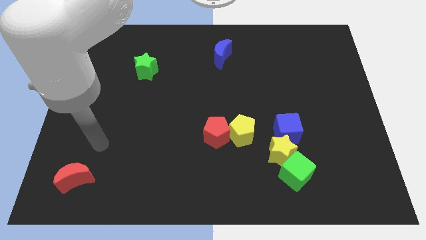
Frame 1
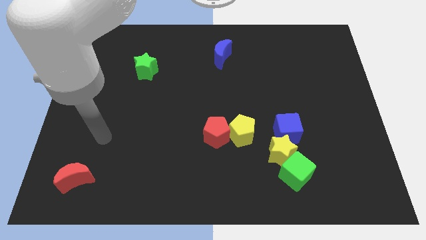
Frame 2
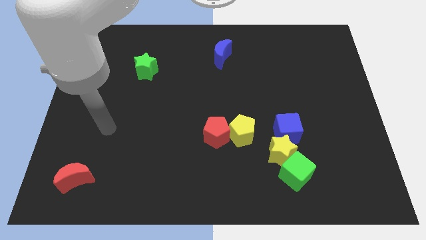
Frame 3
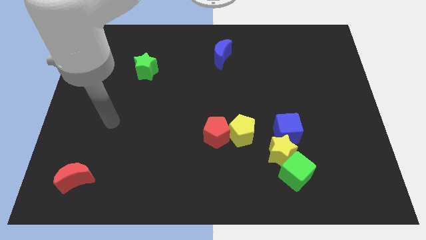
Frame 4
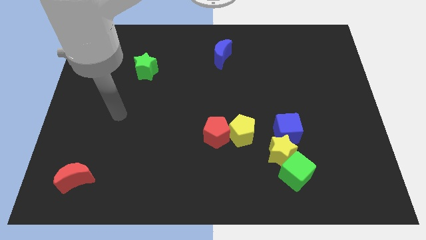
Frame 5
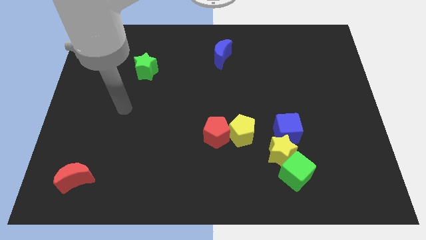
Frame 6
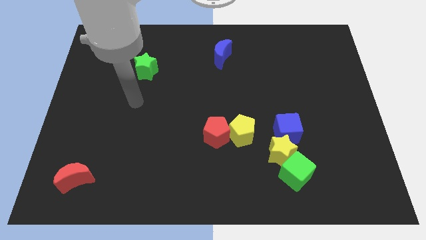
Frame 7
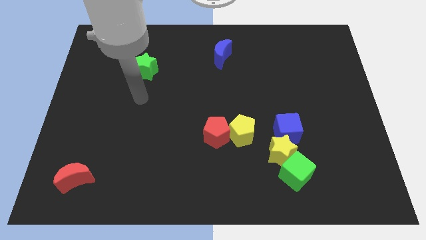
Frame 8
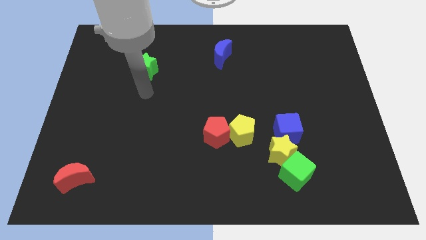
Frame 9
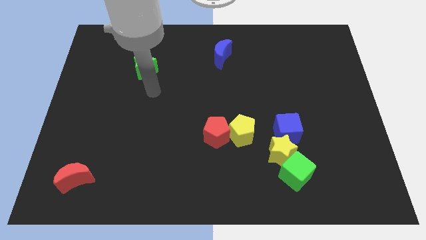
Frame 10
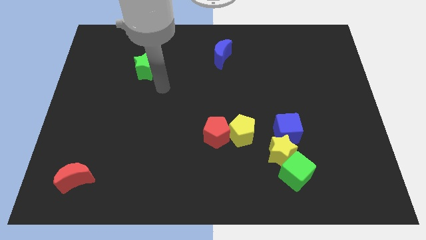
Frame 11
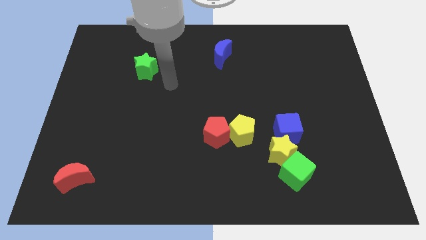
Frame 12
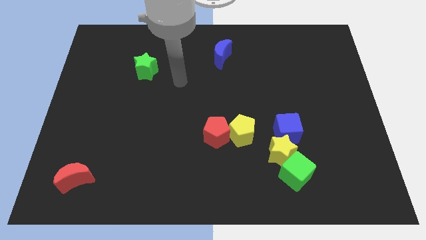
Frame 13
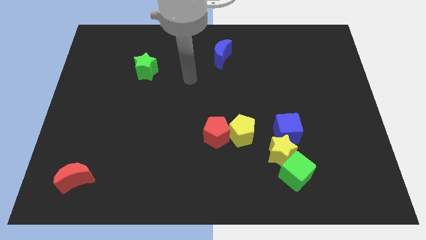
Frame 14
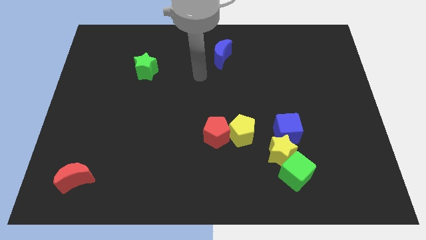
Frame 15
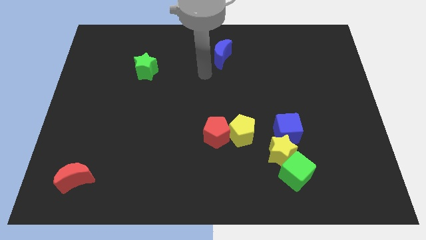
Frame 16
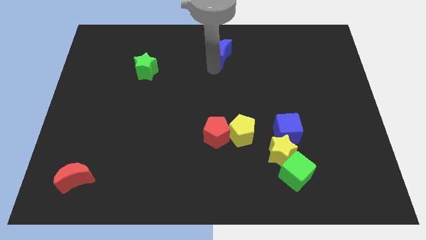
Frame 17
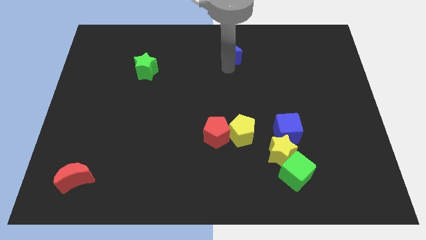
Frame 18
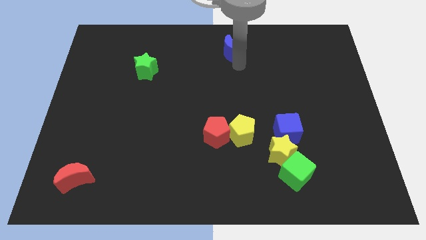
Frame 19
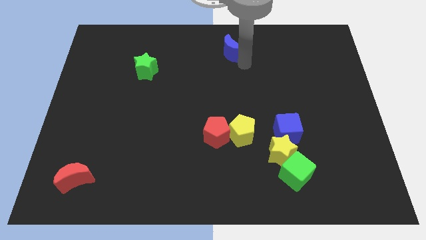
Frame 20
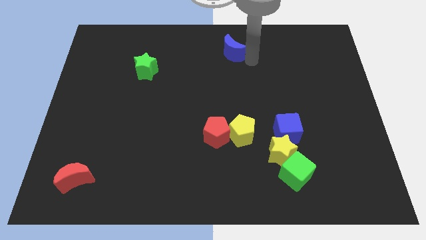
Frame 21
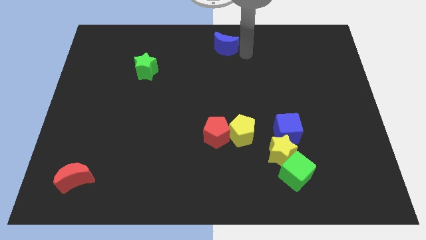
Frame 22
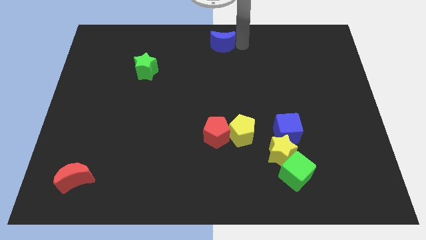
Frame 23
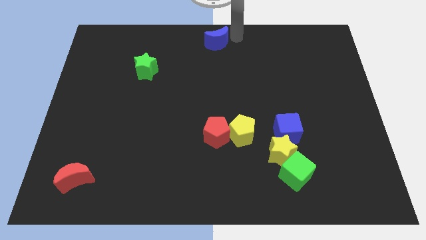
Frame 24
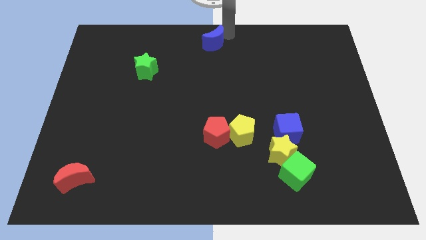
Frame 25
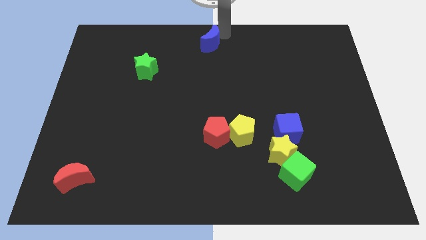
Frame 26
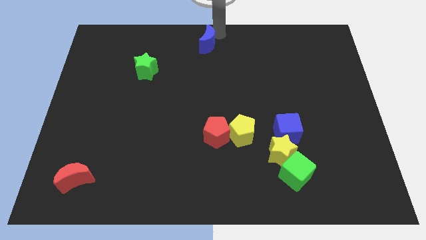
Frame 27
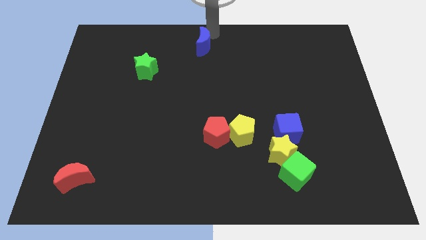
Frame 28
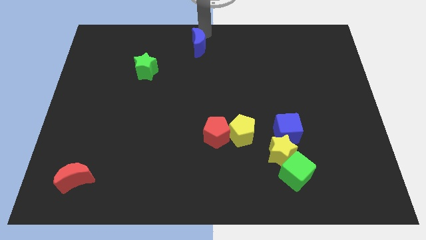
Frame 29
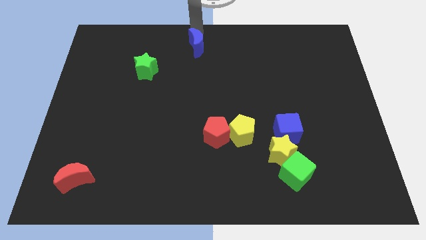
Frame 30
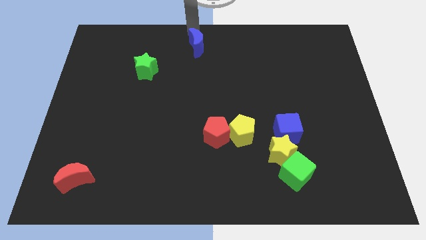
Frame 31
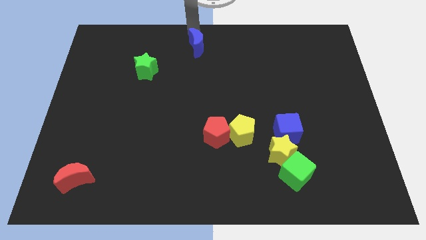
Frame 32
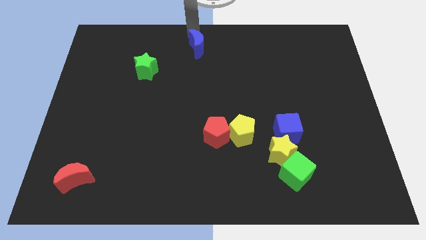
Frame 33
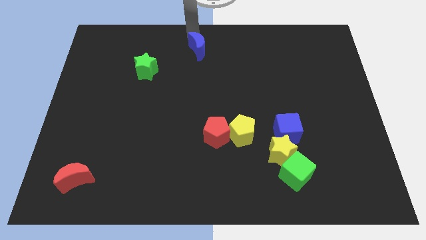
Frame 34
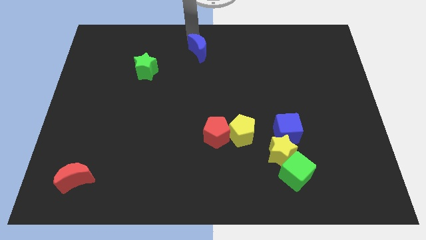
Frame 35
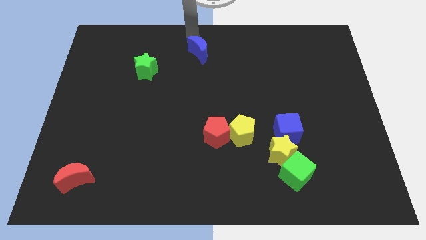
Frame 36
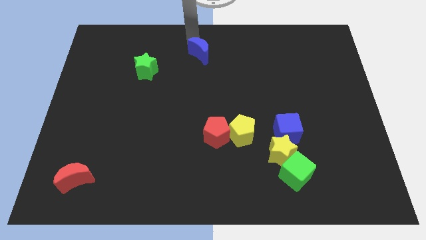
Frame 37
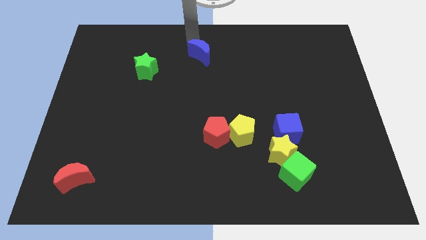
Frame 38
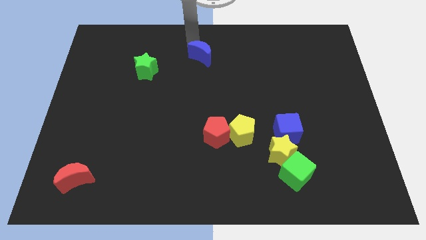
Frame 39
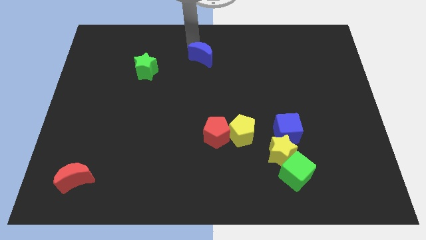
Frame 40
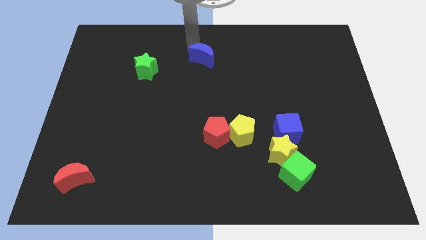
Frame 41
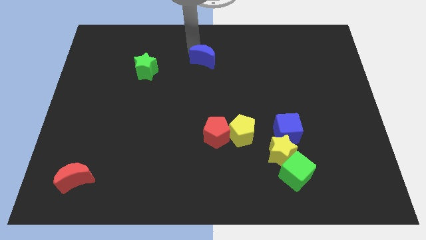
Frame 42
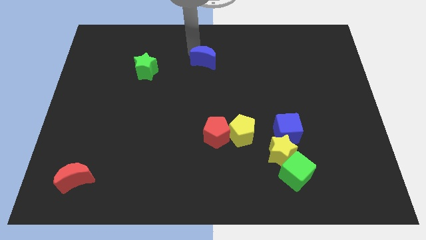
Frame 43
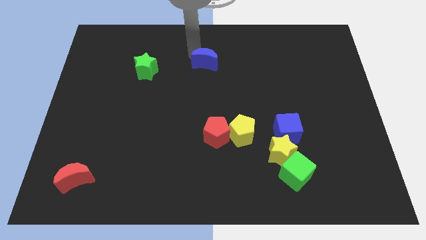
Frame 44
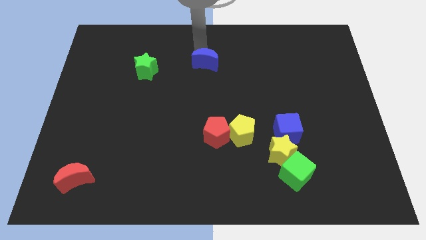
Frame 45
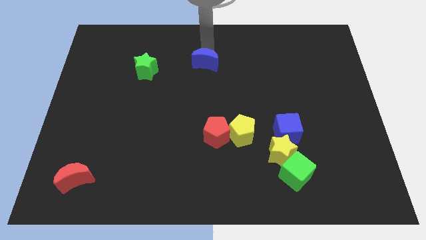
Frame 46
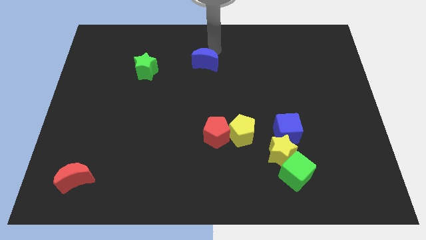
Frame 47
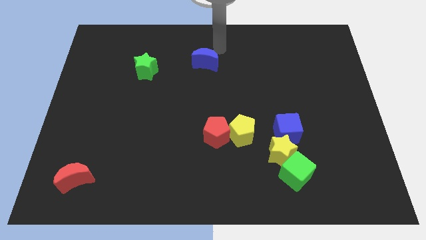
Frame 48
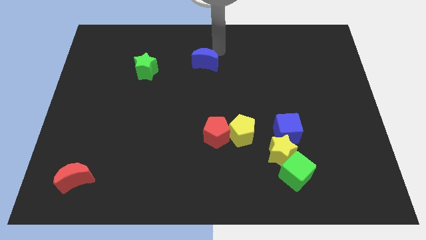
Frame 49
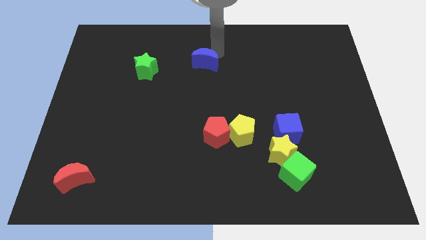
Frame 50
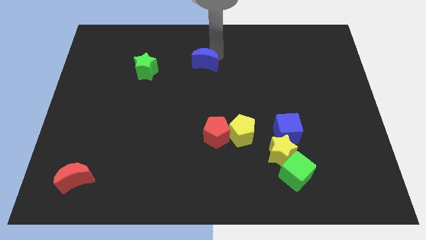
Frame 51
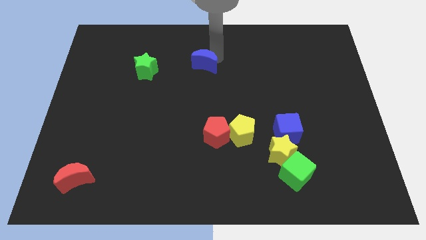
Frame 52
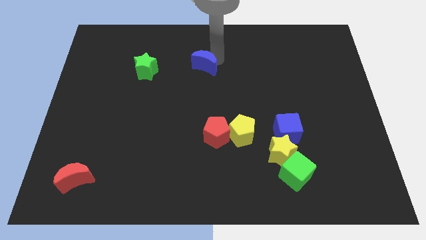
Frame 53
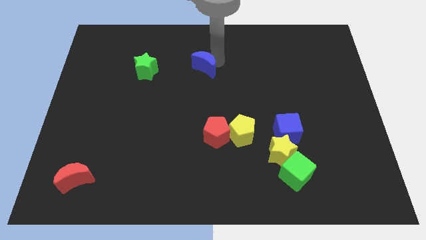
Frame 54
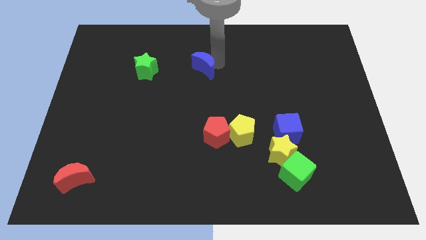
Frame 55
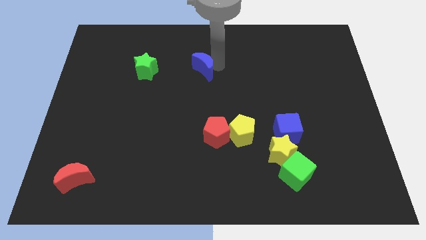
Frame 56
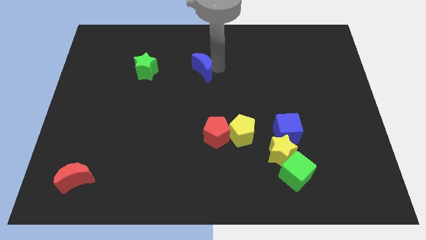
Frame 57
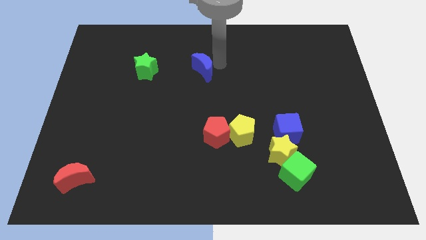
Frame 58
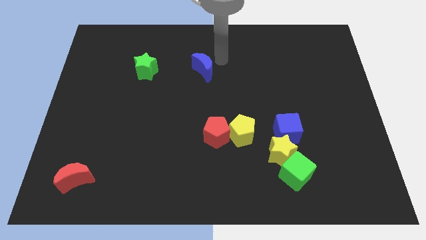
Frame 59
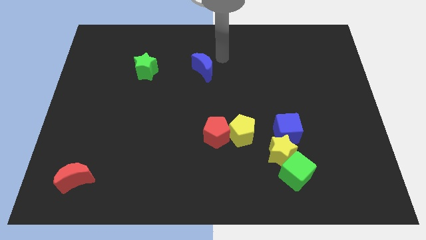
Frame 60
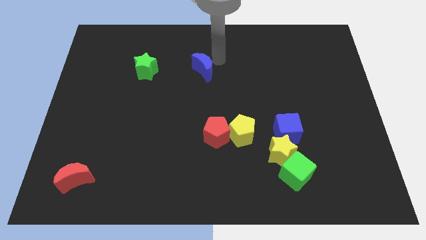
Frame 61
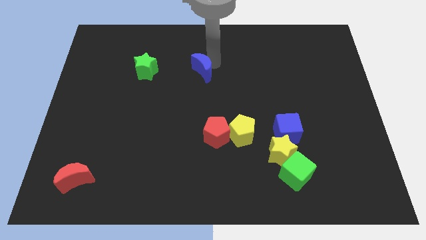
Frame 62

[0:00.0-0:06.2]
slightly push the blue moon downwards and to the left

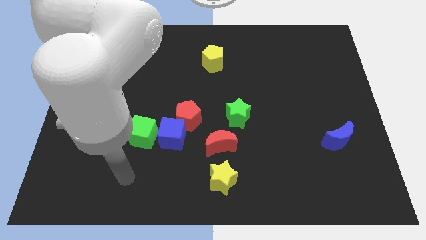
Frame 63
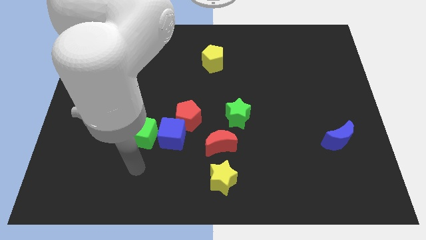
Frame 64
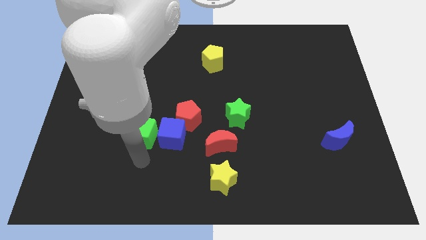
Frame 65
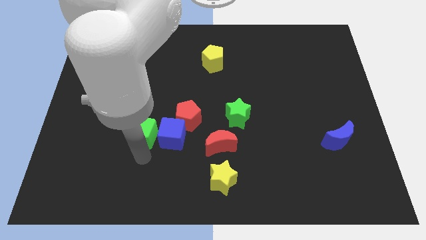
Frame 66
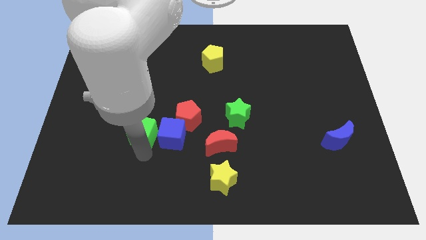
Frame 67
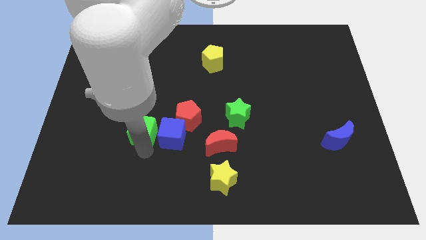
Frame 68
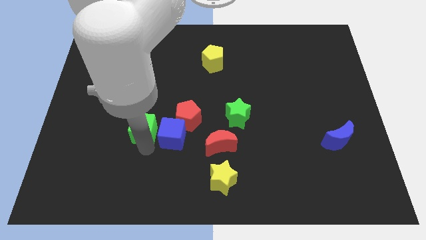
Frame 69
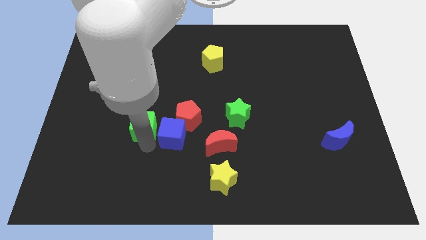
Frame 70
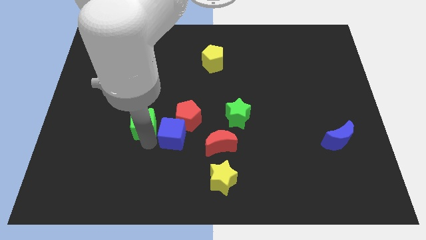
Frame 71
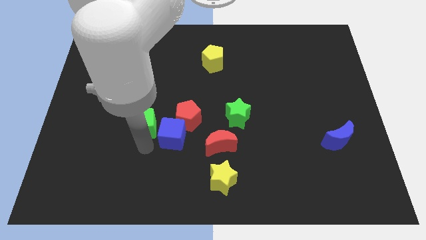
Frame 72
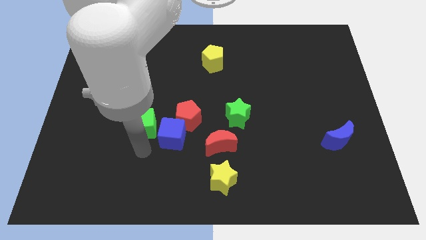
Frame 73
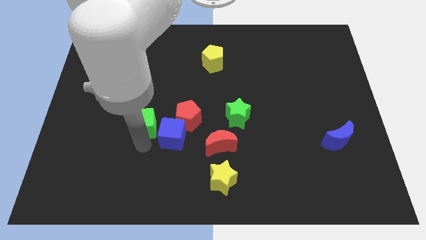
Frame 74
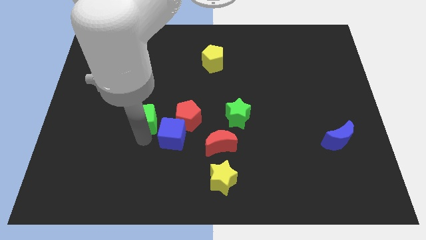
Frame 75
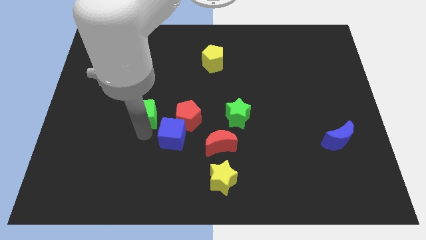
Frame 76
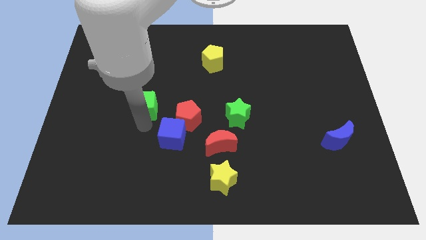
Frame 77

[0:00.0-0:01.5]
slightly push the green cube upwards

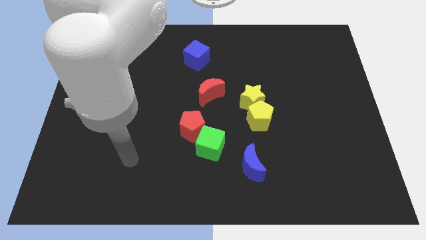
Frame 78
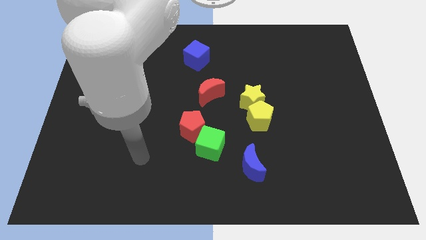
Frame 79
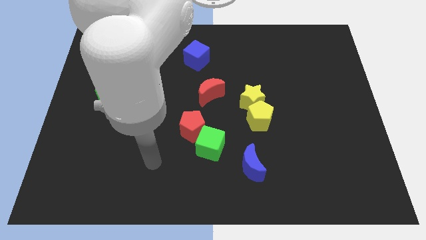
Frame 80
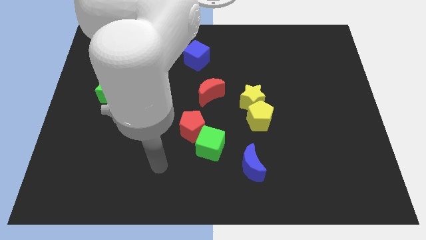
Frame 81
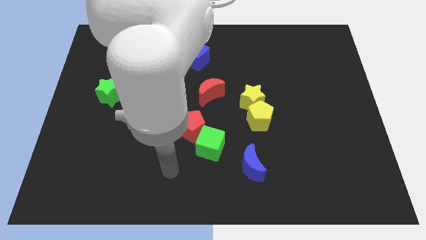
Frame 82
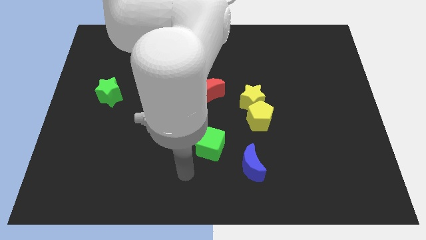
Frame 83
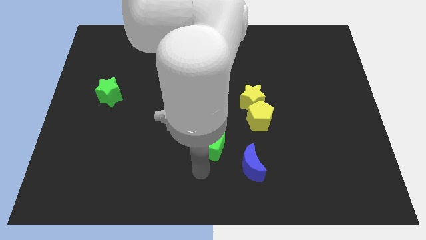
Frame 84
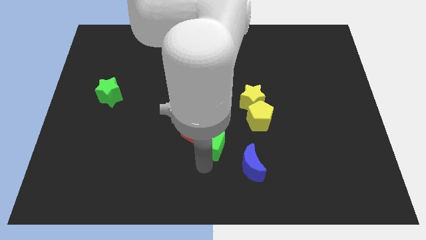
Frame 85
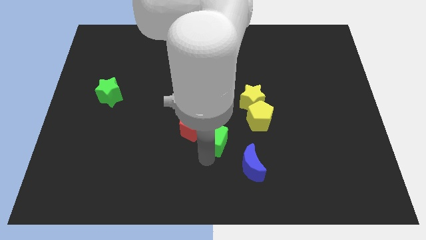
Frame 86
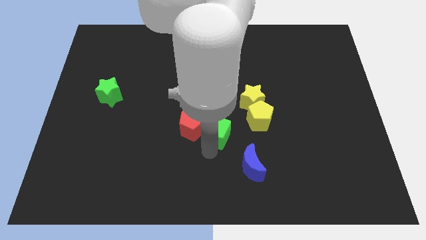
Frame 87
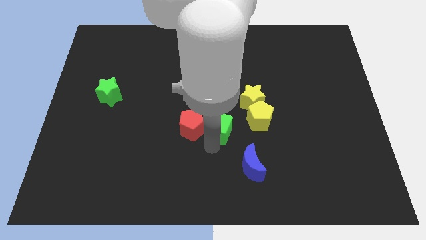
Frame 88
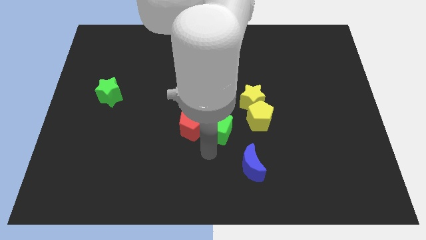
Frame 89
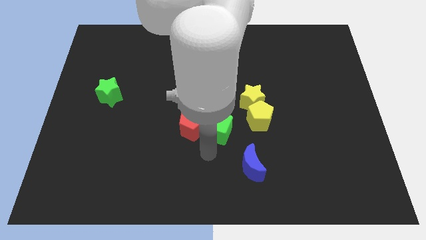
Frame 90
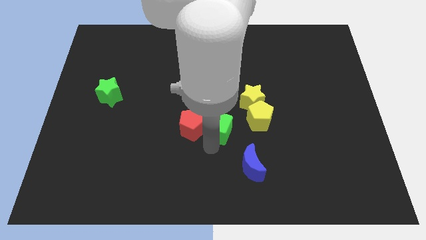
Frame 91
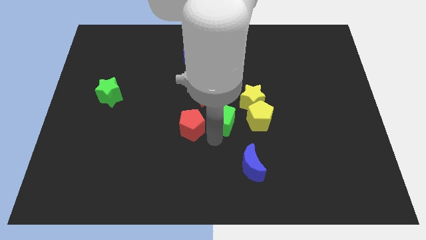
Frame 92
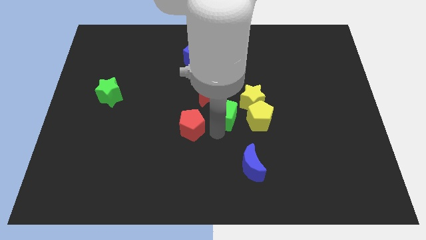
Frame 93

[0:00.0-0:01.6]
push the green cube slightly upwards
